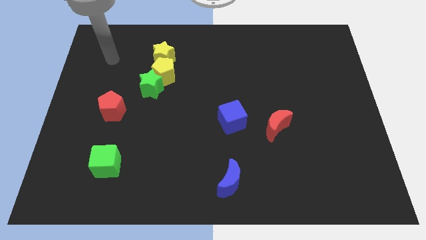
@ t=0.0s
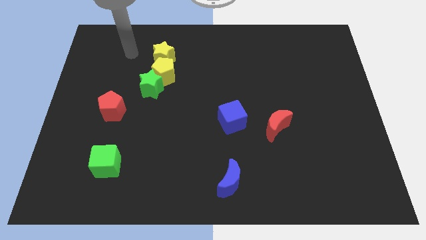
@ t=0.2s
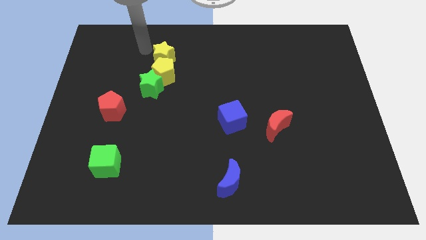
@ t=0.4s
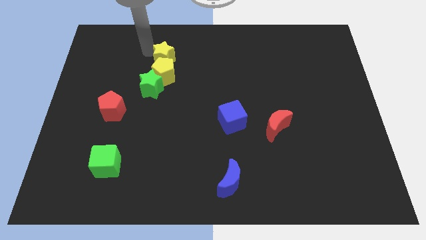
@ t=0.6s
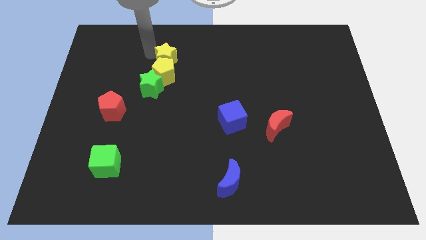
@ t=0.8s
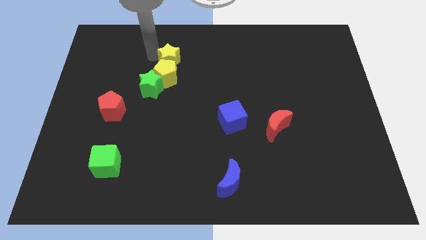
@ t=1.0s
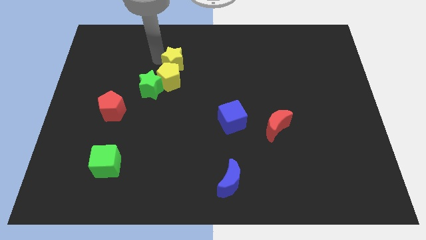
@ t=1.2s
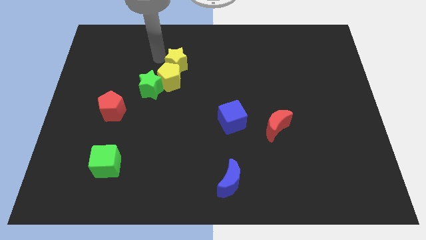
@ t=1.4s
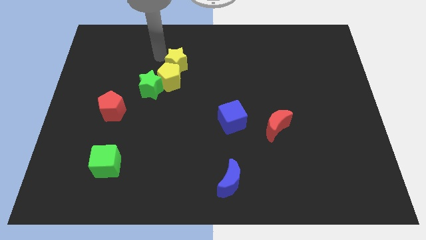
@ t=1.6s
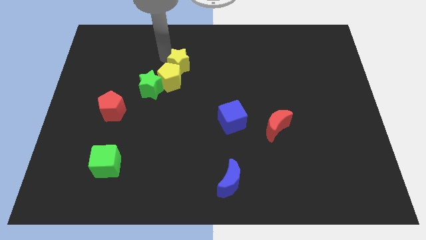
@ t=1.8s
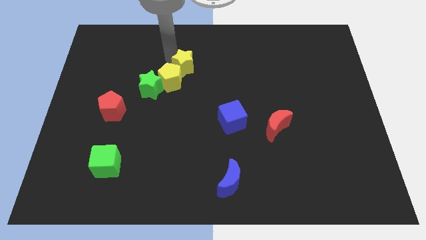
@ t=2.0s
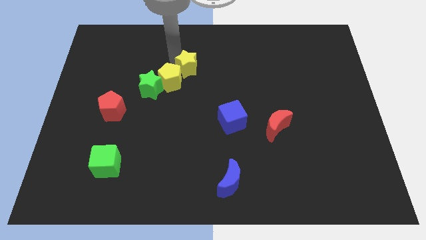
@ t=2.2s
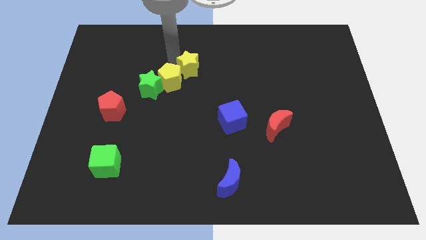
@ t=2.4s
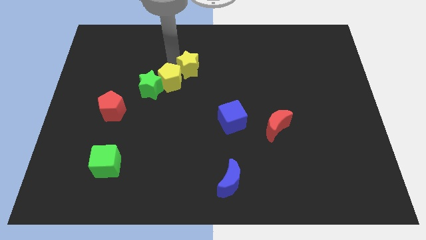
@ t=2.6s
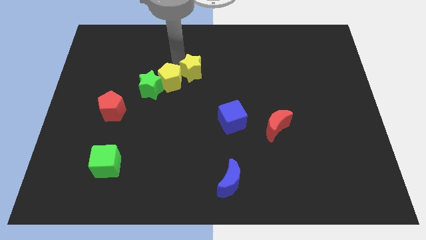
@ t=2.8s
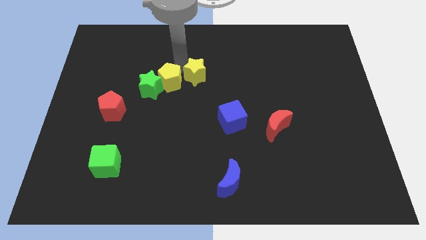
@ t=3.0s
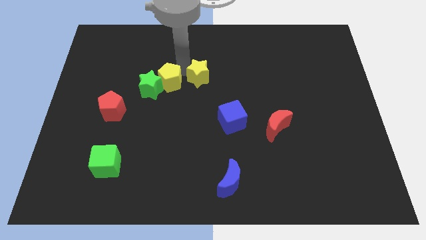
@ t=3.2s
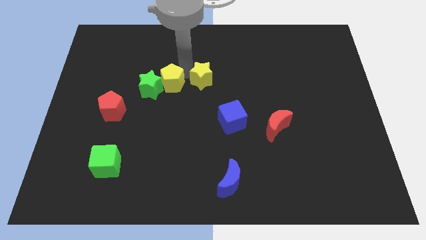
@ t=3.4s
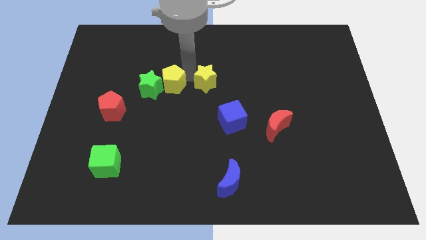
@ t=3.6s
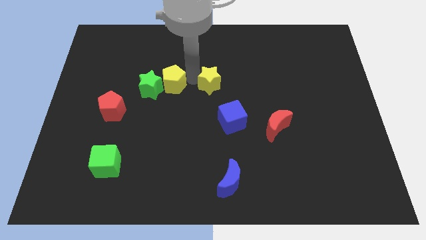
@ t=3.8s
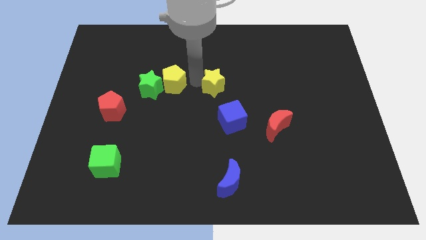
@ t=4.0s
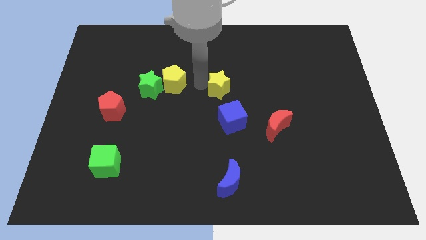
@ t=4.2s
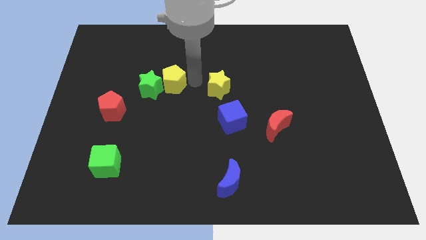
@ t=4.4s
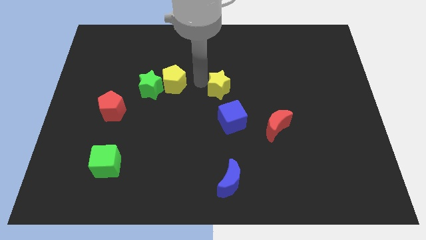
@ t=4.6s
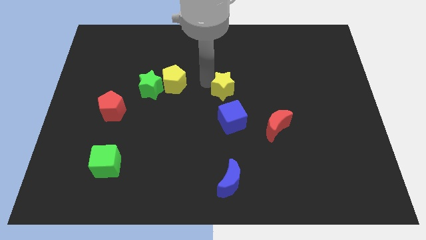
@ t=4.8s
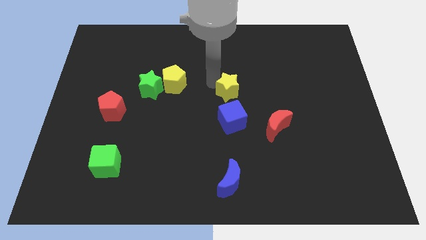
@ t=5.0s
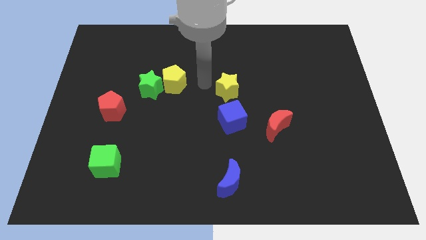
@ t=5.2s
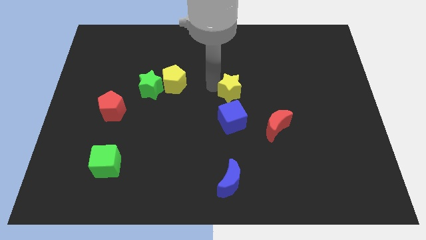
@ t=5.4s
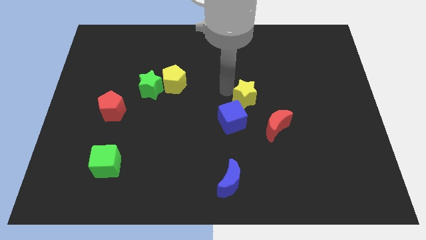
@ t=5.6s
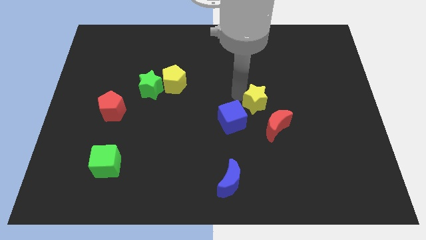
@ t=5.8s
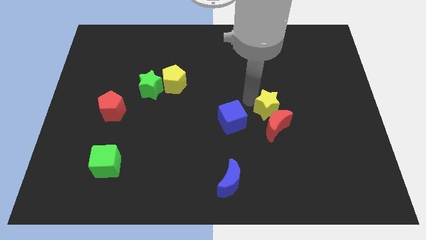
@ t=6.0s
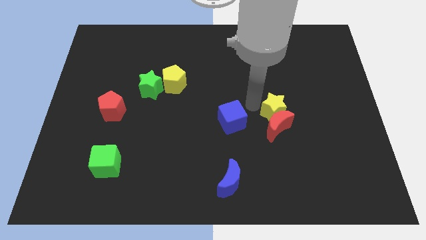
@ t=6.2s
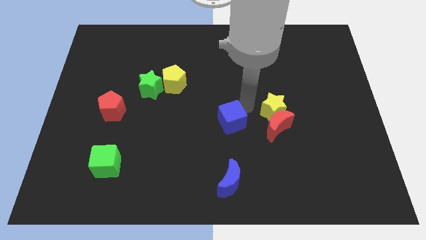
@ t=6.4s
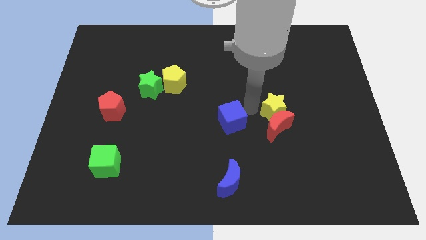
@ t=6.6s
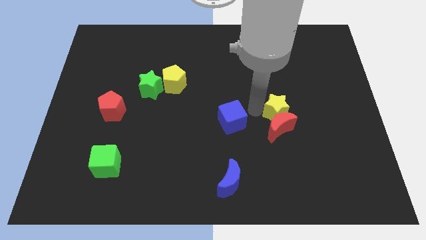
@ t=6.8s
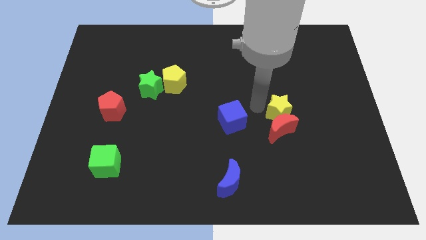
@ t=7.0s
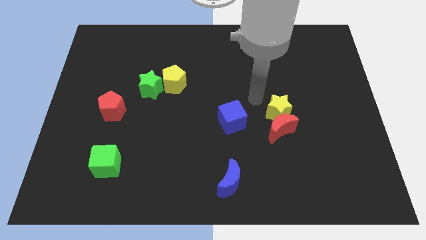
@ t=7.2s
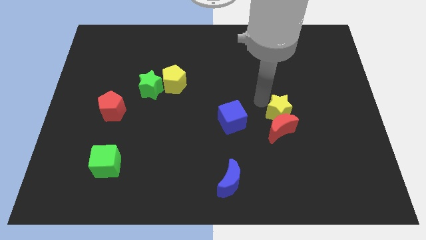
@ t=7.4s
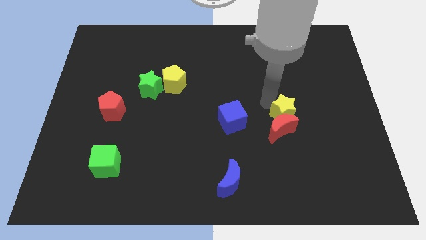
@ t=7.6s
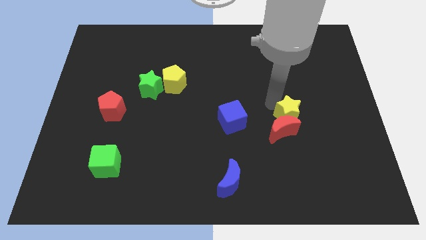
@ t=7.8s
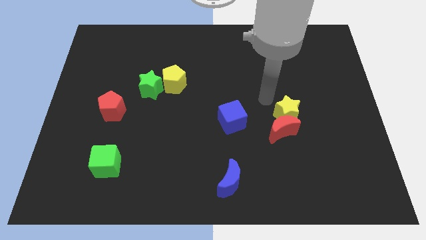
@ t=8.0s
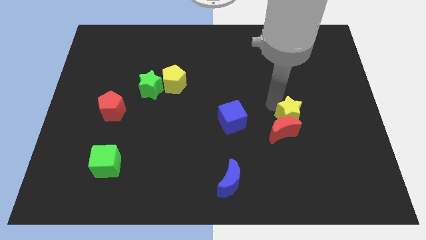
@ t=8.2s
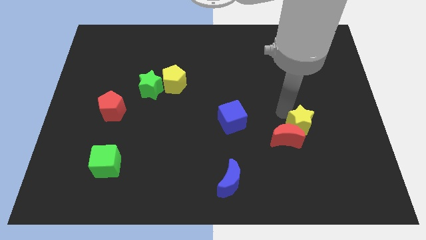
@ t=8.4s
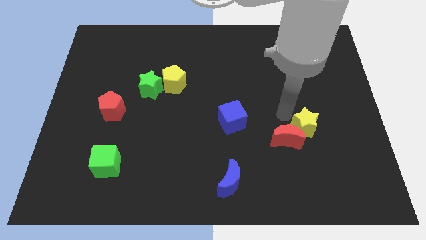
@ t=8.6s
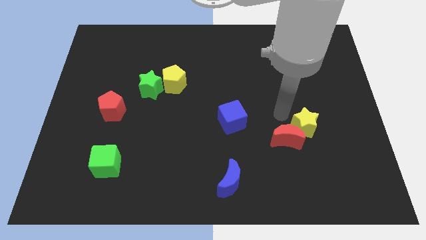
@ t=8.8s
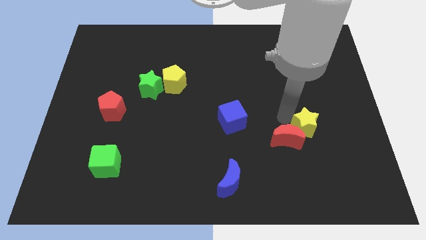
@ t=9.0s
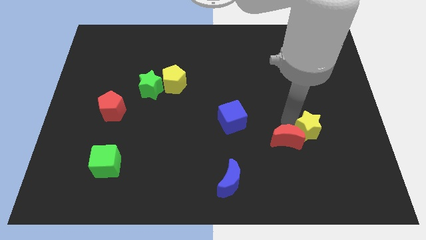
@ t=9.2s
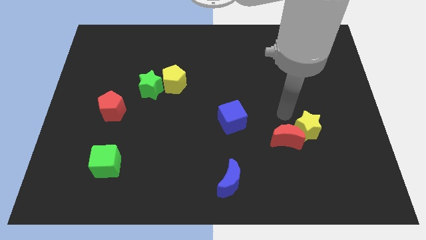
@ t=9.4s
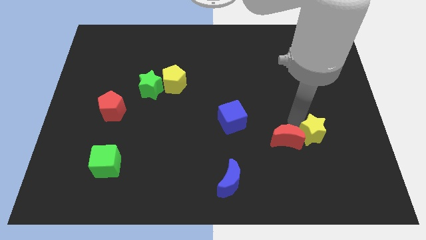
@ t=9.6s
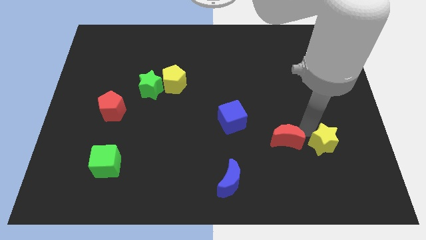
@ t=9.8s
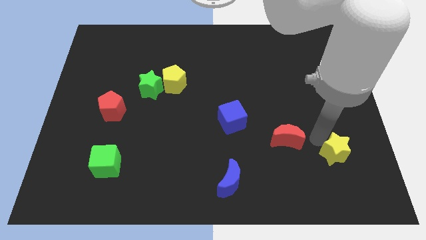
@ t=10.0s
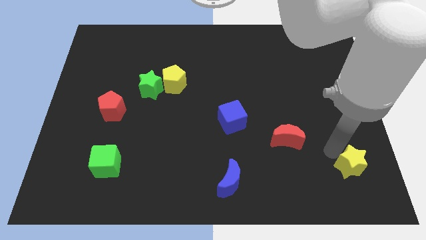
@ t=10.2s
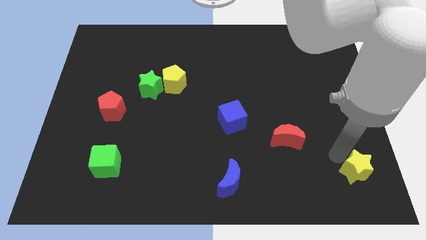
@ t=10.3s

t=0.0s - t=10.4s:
slide the yellow star to the lower right corner

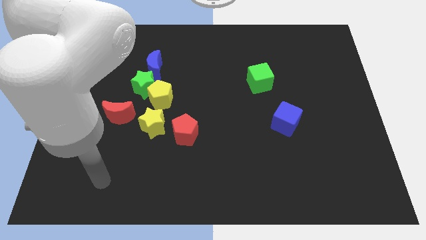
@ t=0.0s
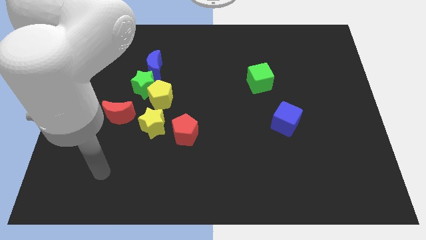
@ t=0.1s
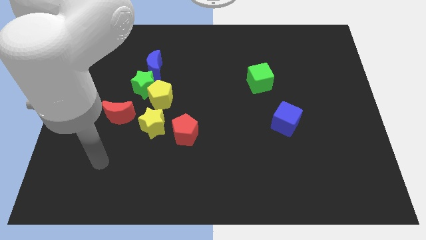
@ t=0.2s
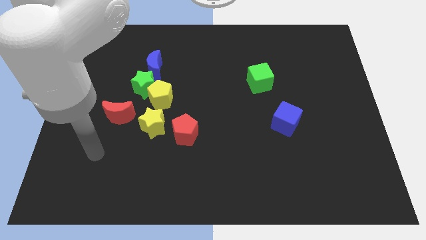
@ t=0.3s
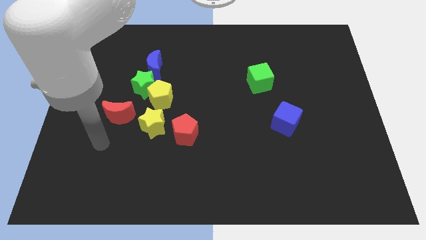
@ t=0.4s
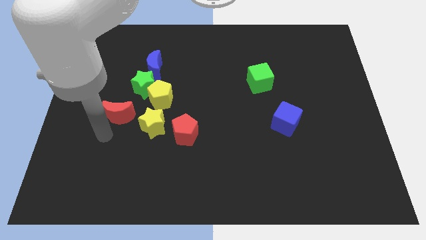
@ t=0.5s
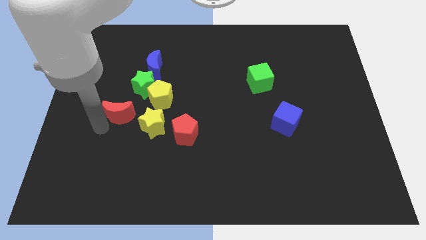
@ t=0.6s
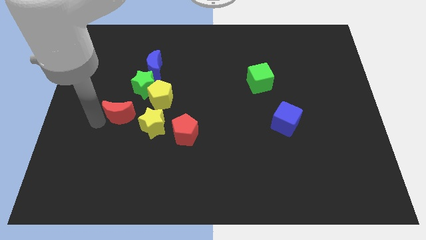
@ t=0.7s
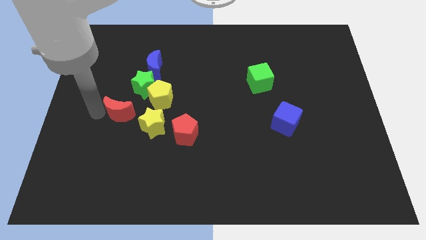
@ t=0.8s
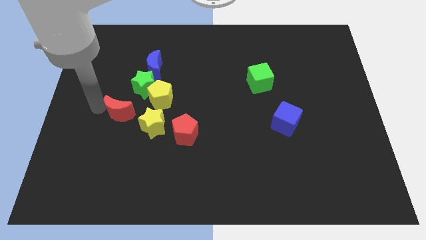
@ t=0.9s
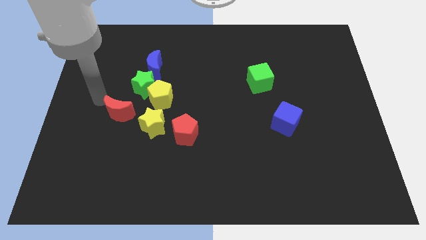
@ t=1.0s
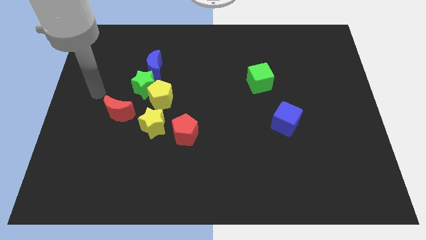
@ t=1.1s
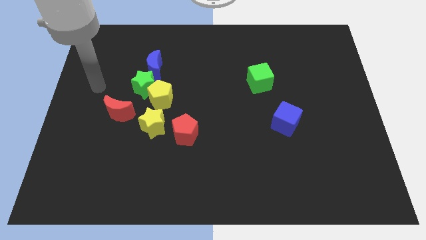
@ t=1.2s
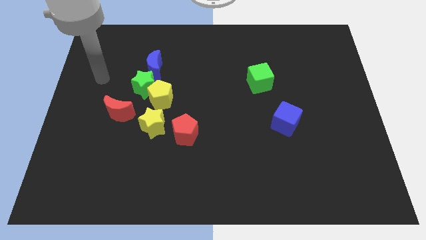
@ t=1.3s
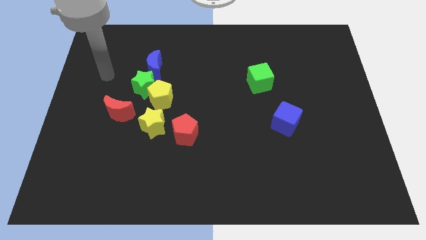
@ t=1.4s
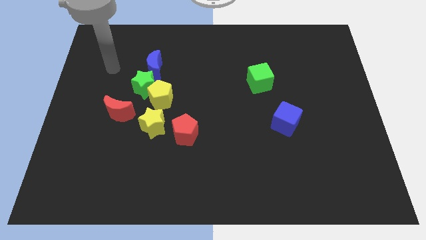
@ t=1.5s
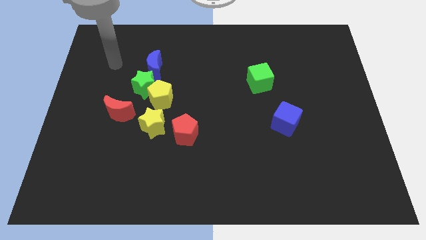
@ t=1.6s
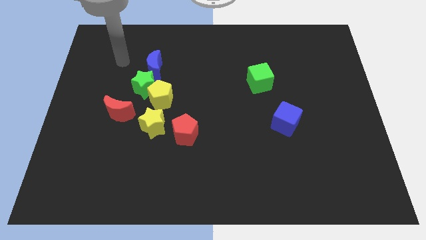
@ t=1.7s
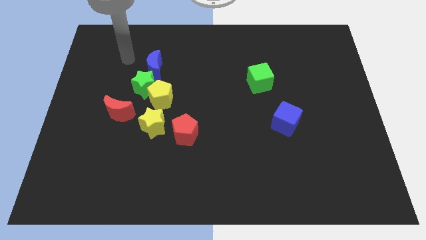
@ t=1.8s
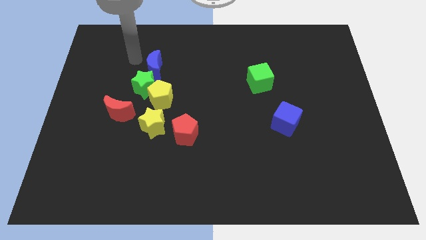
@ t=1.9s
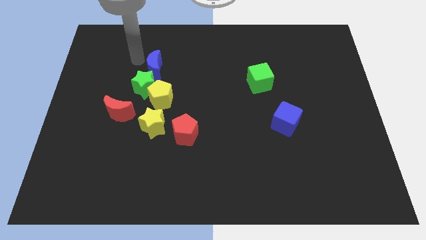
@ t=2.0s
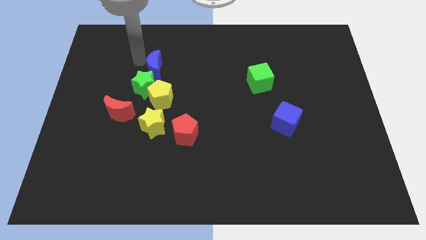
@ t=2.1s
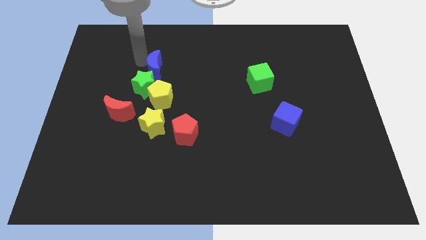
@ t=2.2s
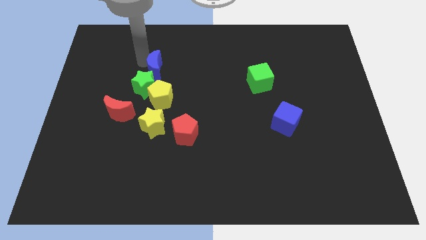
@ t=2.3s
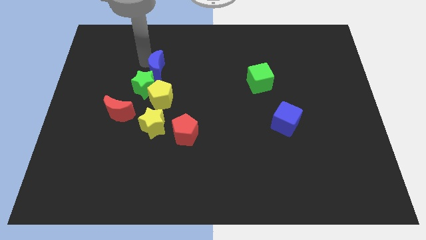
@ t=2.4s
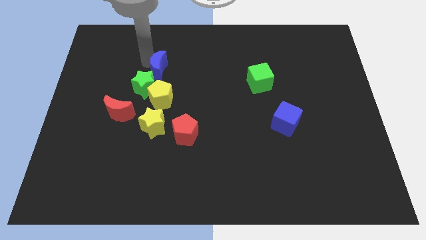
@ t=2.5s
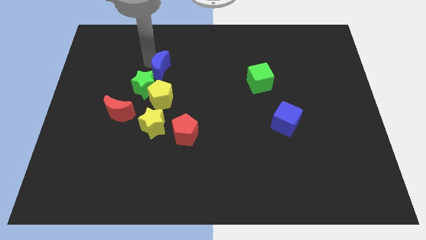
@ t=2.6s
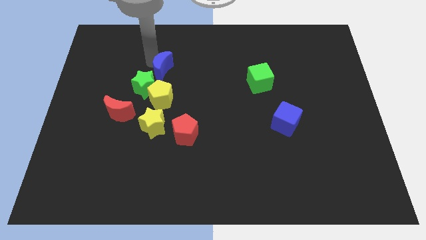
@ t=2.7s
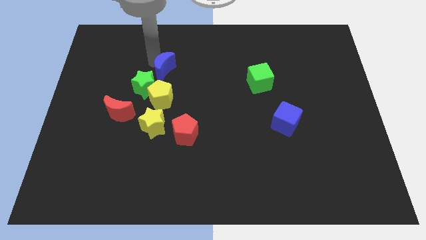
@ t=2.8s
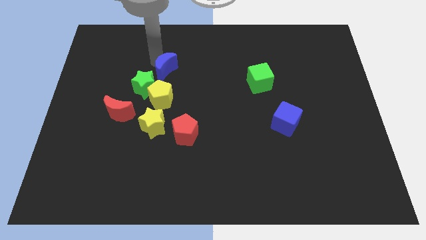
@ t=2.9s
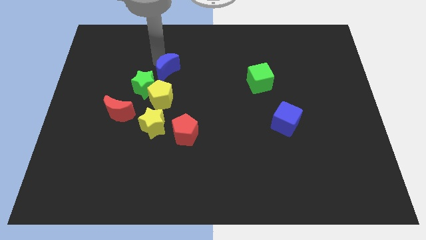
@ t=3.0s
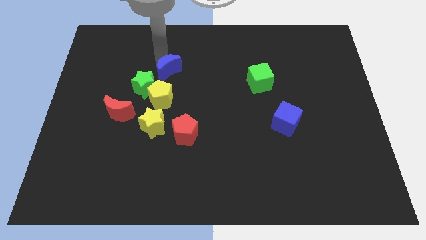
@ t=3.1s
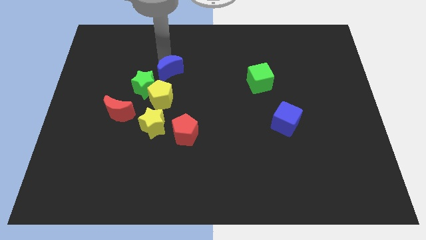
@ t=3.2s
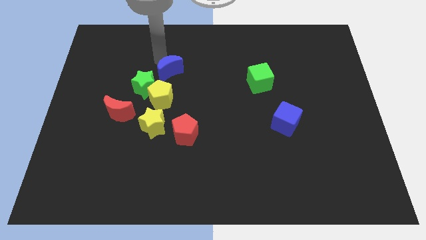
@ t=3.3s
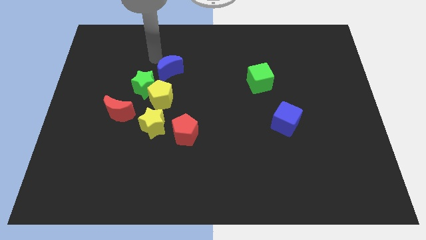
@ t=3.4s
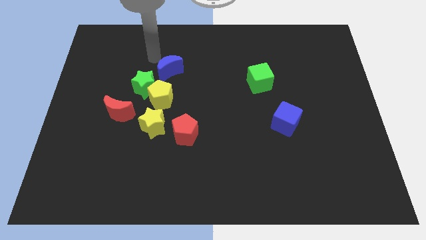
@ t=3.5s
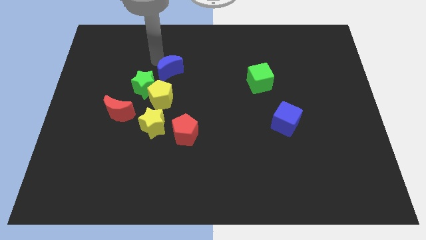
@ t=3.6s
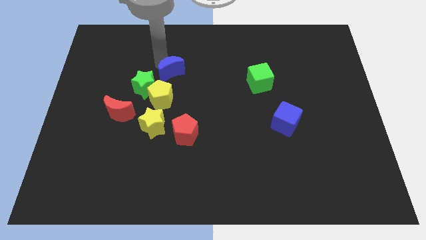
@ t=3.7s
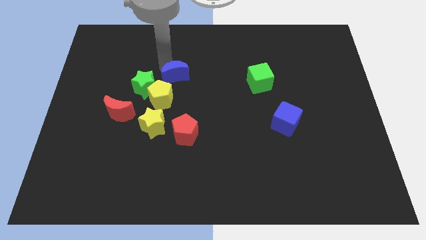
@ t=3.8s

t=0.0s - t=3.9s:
put the blue moon to the middle of the board
